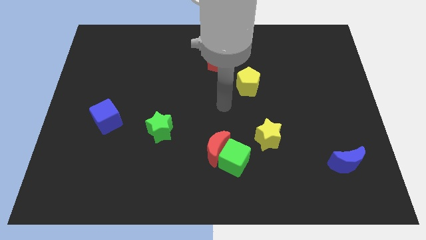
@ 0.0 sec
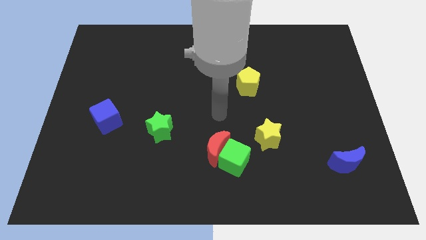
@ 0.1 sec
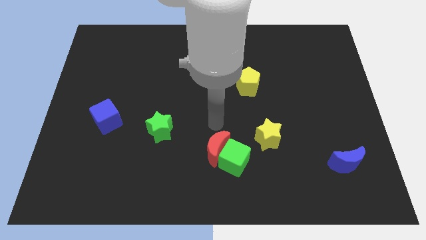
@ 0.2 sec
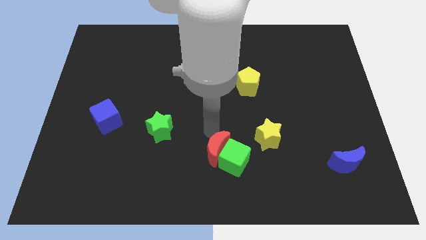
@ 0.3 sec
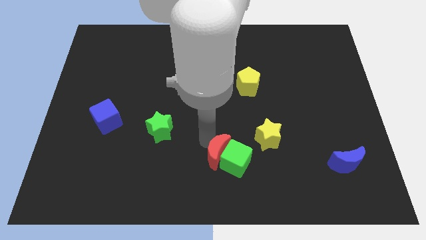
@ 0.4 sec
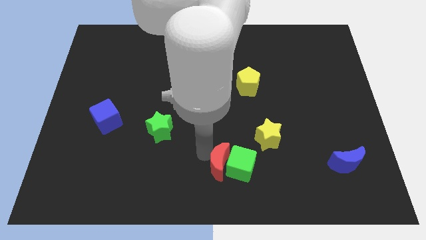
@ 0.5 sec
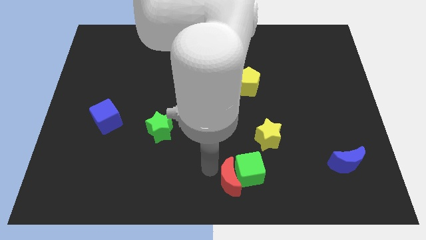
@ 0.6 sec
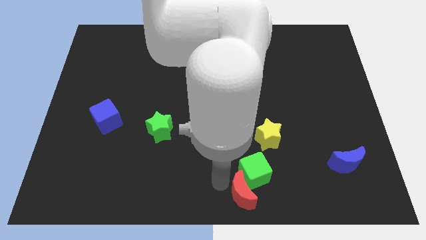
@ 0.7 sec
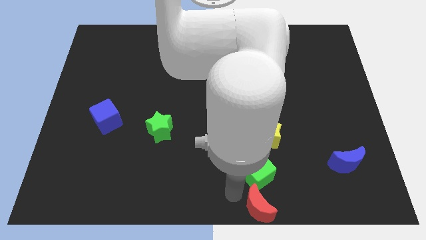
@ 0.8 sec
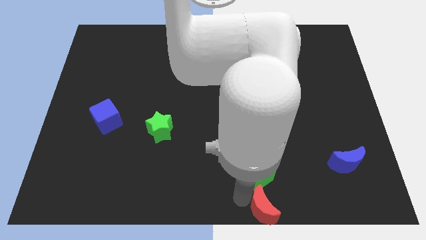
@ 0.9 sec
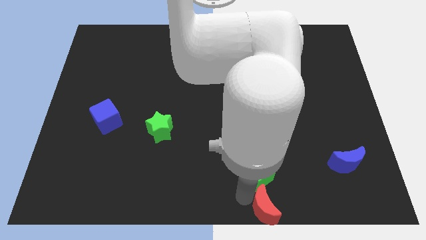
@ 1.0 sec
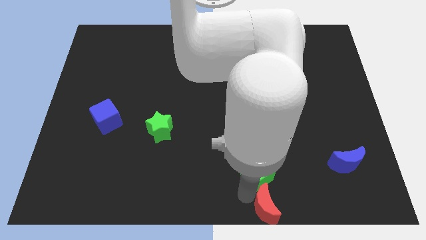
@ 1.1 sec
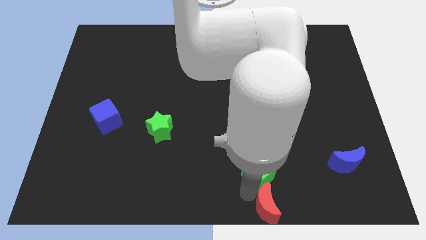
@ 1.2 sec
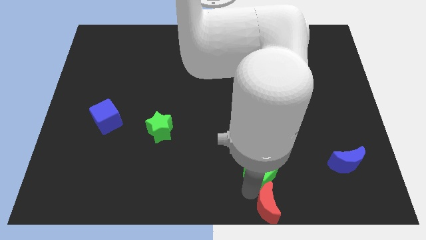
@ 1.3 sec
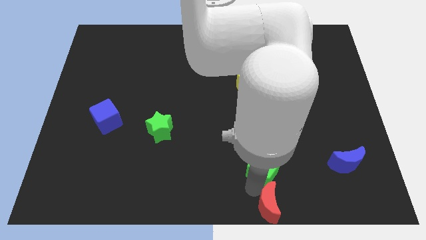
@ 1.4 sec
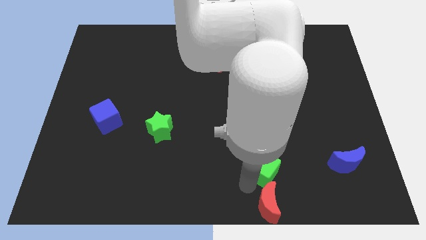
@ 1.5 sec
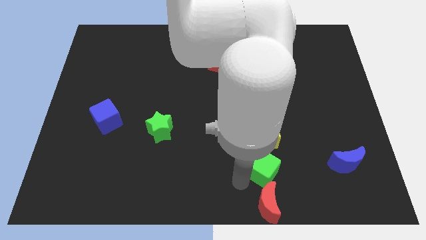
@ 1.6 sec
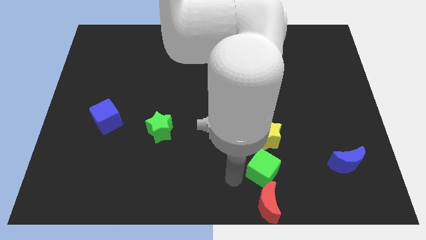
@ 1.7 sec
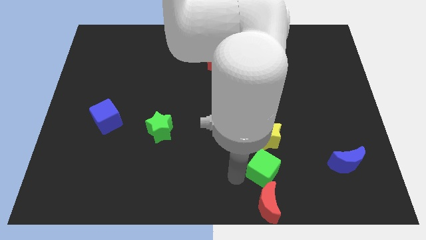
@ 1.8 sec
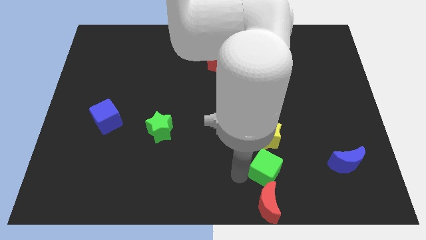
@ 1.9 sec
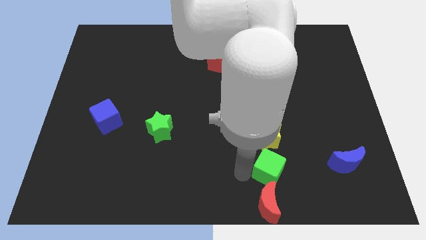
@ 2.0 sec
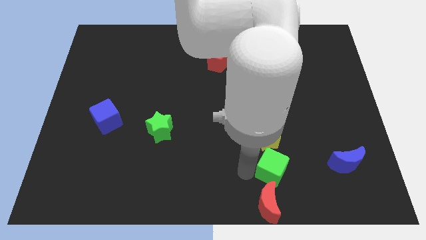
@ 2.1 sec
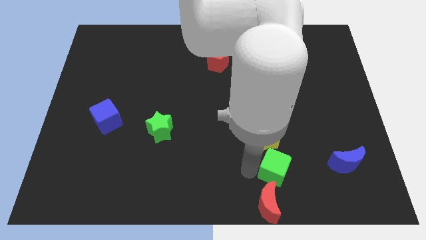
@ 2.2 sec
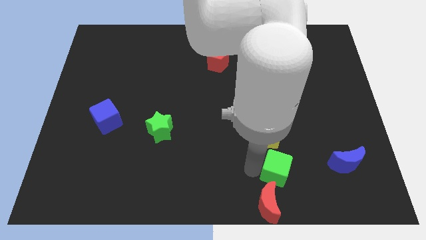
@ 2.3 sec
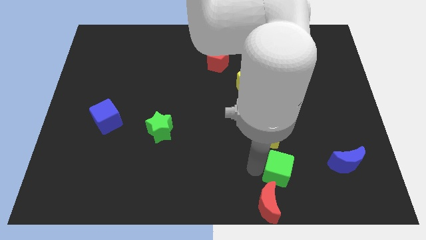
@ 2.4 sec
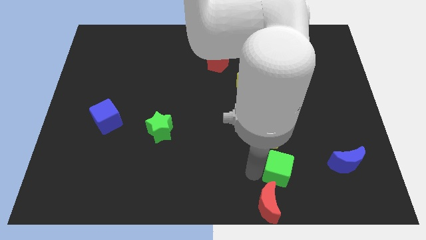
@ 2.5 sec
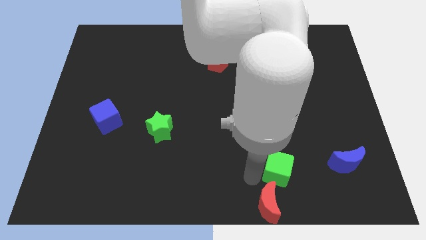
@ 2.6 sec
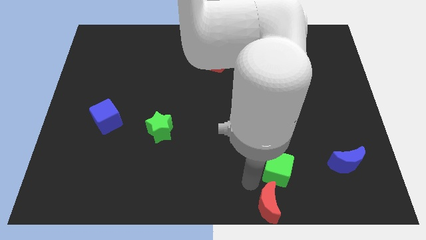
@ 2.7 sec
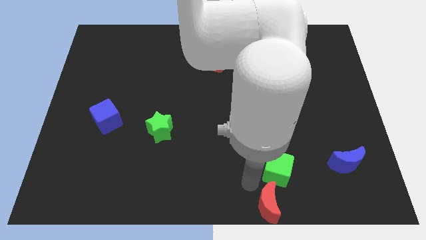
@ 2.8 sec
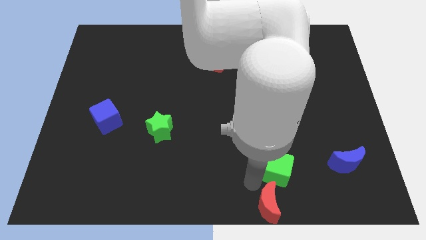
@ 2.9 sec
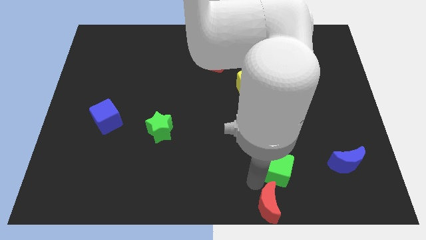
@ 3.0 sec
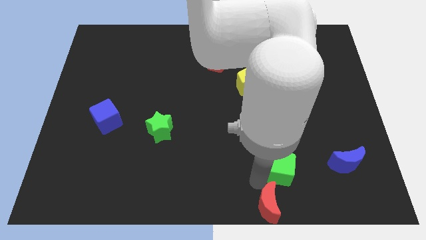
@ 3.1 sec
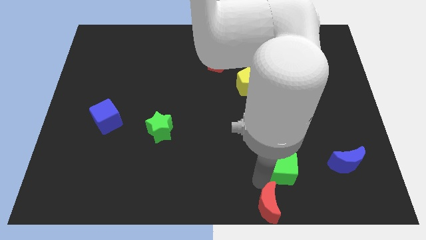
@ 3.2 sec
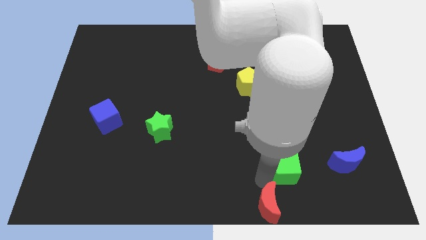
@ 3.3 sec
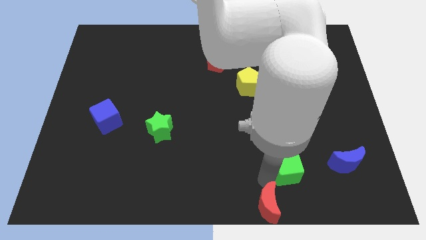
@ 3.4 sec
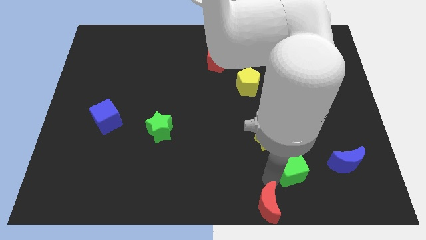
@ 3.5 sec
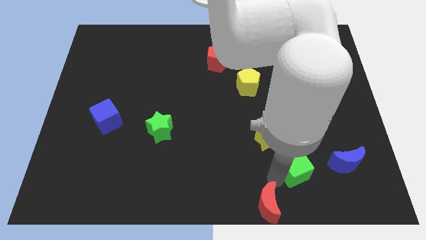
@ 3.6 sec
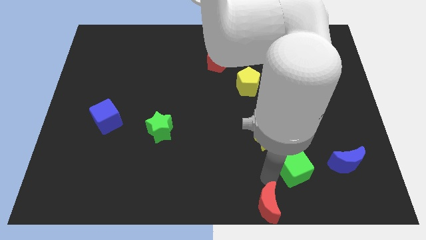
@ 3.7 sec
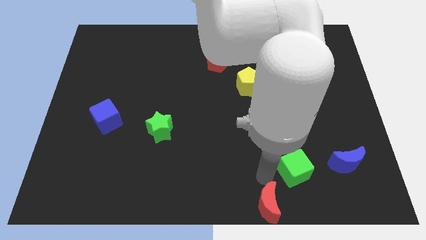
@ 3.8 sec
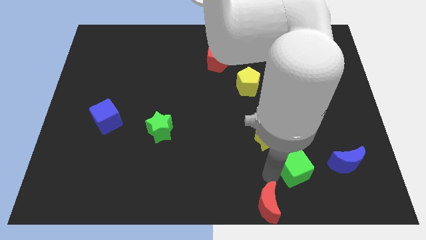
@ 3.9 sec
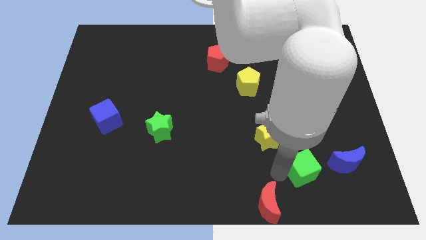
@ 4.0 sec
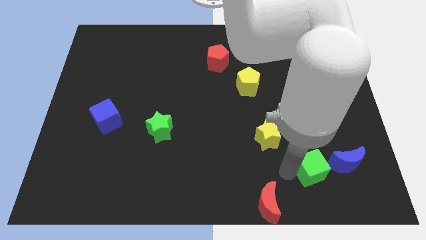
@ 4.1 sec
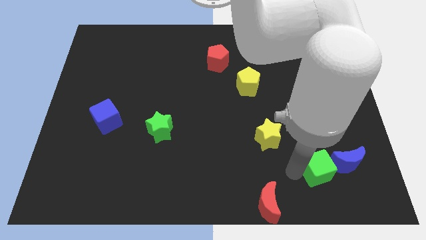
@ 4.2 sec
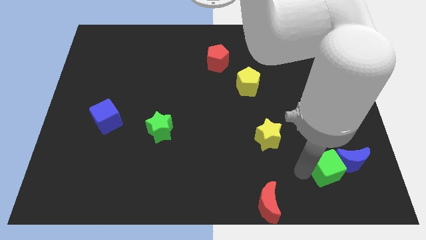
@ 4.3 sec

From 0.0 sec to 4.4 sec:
move the green cube next to the blue moon

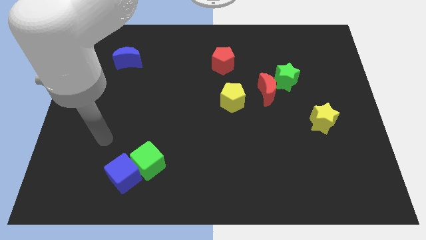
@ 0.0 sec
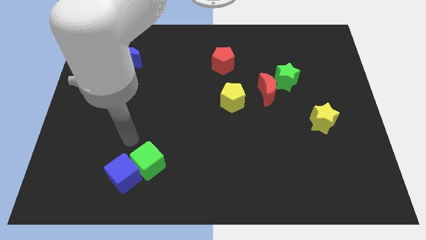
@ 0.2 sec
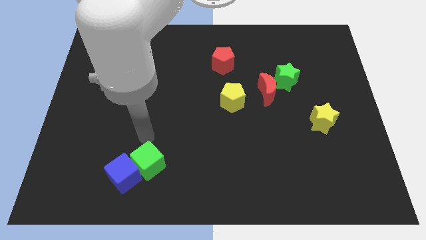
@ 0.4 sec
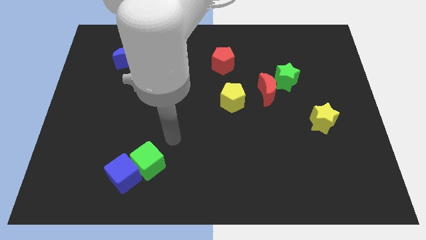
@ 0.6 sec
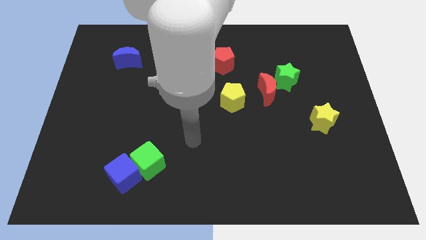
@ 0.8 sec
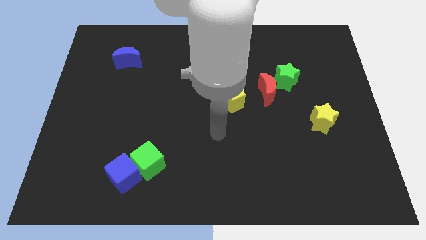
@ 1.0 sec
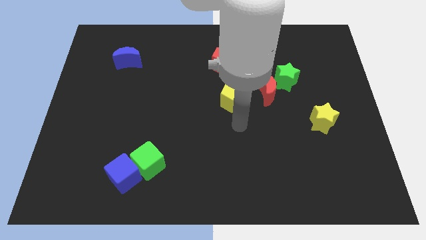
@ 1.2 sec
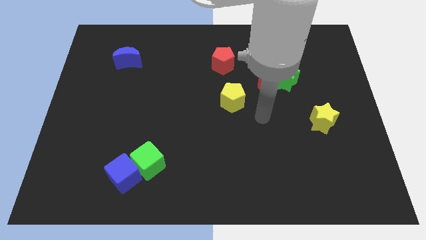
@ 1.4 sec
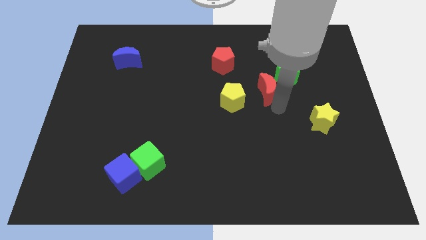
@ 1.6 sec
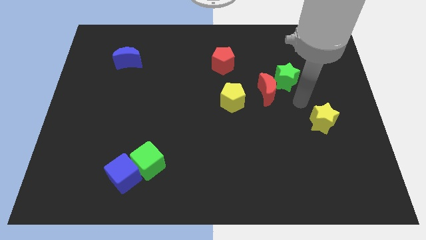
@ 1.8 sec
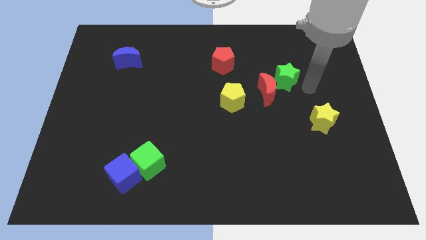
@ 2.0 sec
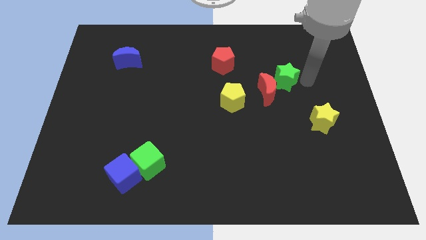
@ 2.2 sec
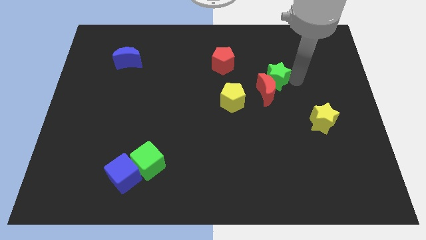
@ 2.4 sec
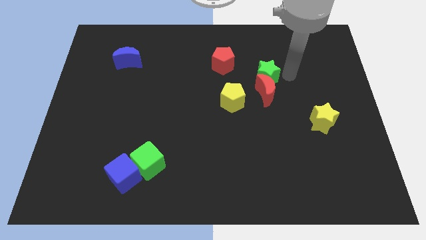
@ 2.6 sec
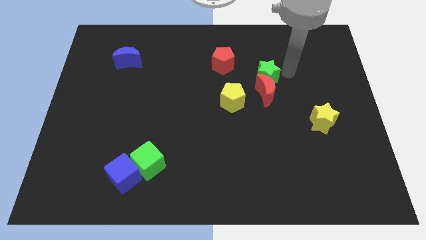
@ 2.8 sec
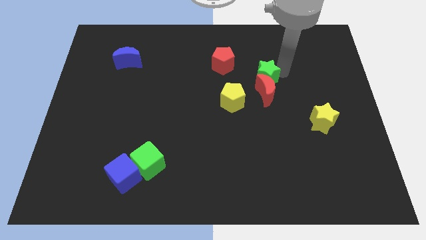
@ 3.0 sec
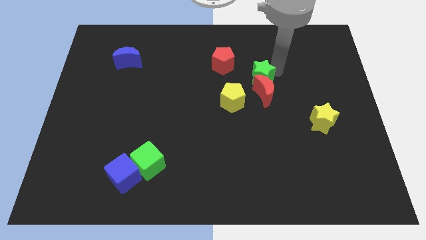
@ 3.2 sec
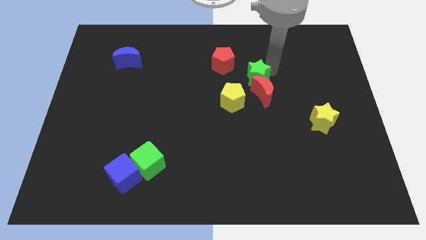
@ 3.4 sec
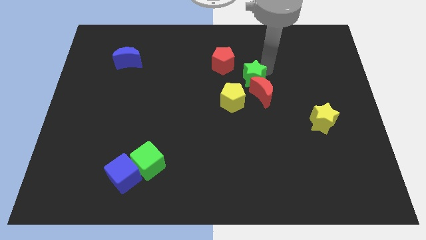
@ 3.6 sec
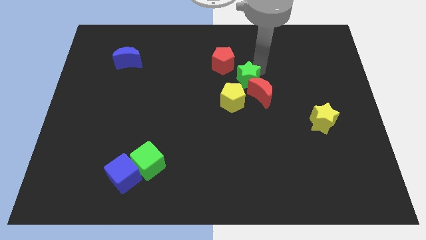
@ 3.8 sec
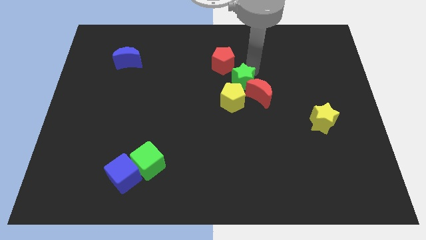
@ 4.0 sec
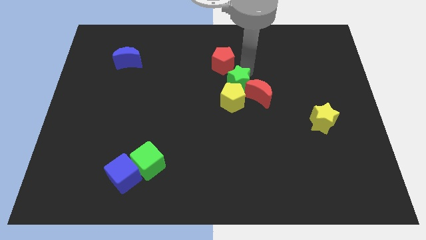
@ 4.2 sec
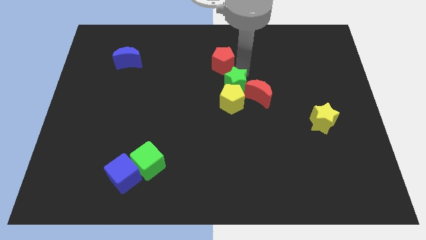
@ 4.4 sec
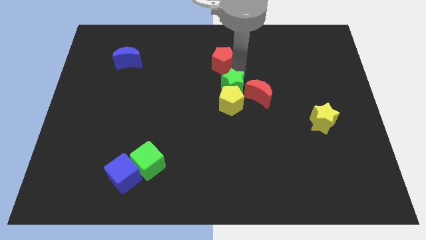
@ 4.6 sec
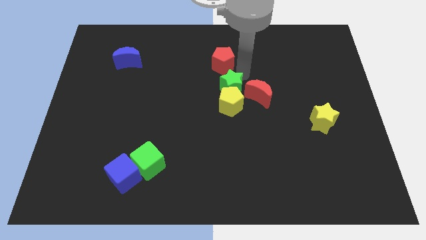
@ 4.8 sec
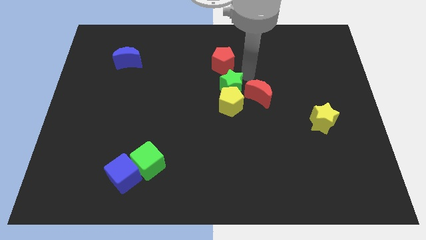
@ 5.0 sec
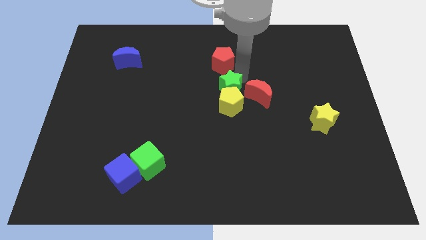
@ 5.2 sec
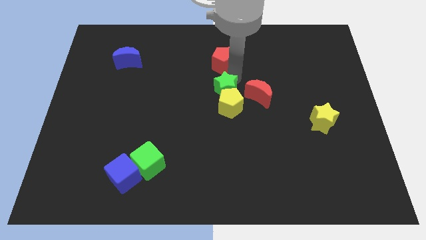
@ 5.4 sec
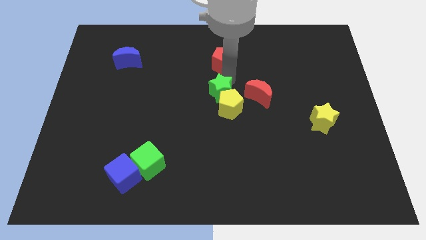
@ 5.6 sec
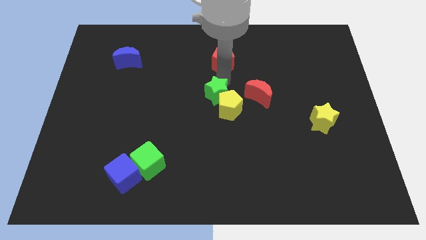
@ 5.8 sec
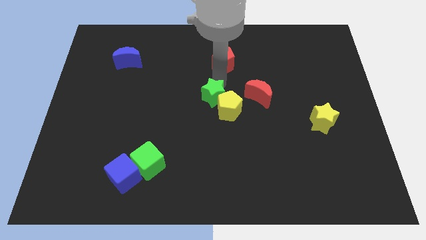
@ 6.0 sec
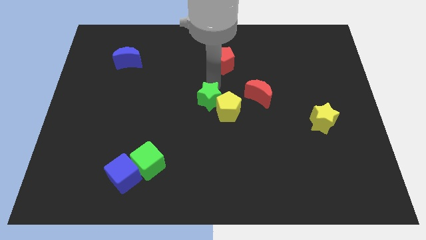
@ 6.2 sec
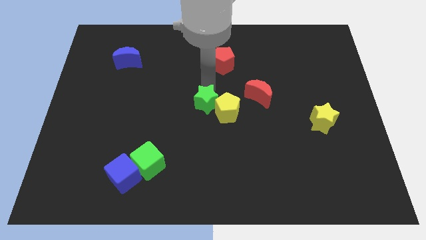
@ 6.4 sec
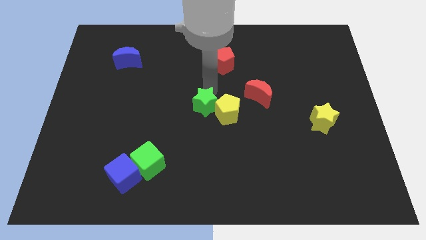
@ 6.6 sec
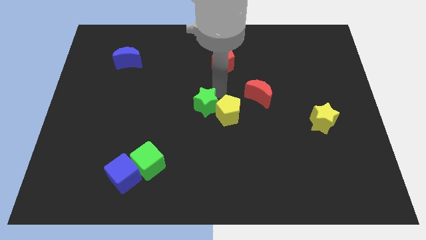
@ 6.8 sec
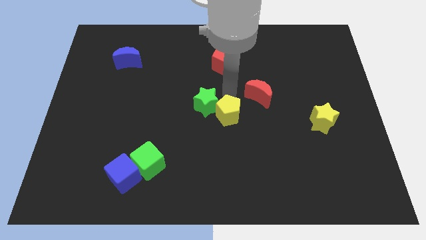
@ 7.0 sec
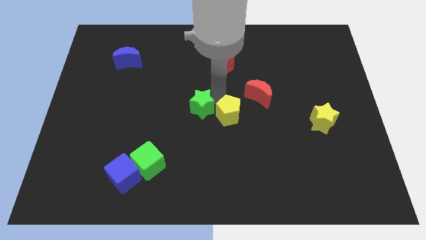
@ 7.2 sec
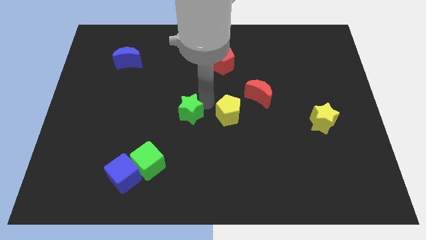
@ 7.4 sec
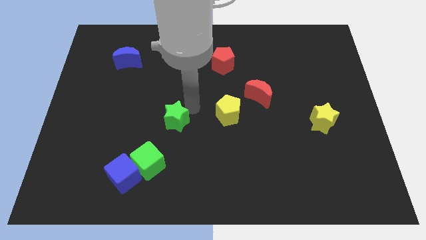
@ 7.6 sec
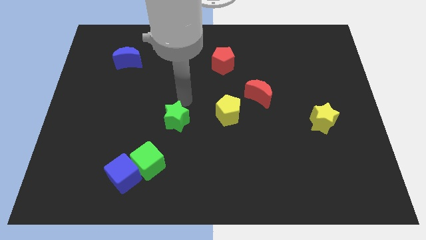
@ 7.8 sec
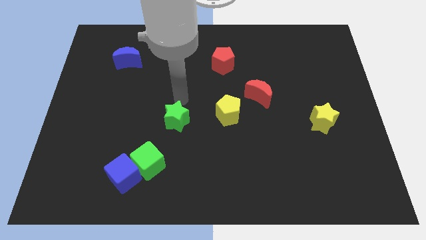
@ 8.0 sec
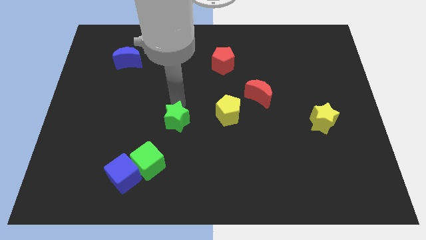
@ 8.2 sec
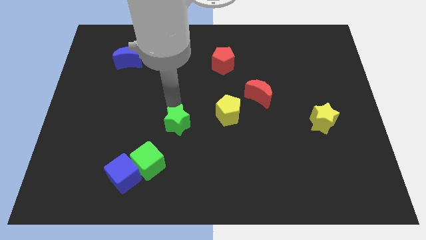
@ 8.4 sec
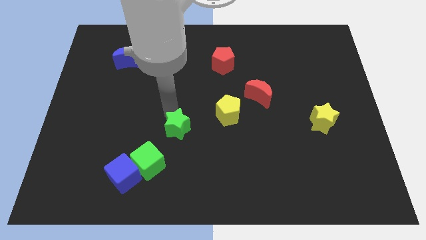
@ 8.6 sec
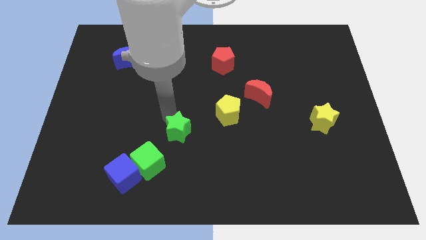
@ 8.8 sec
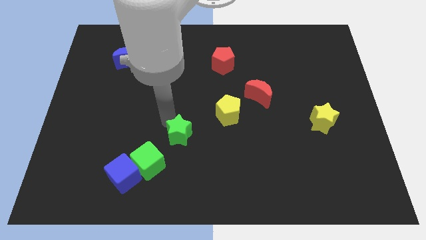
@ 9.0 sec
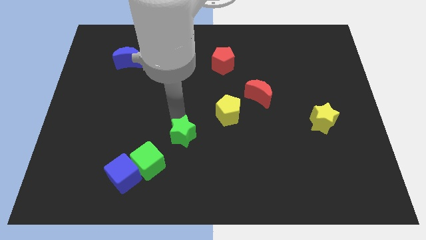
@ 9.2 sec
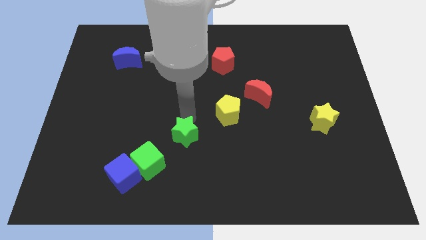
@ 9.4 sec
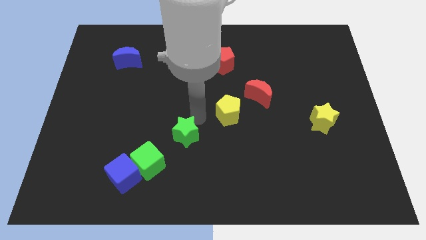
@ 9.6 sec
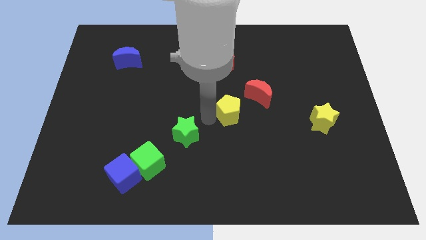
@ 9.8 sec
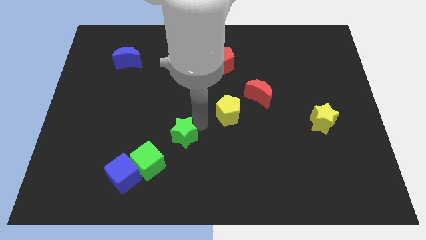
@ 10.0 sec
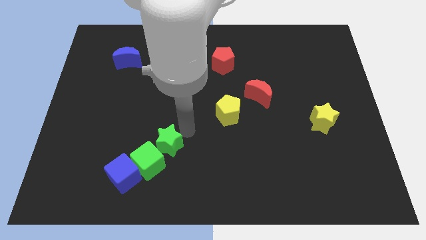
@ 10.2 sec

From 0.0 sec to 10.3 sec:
put the green star next to the green cube
